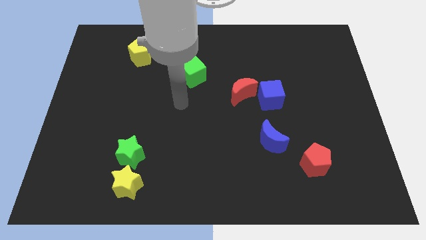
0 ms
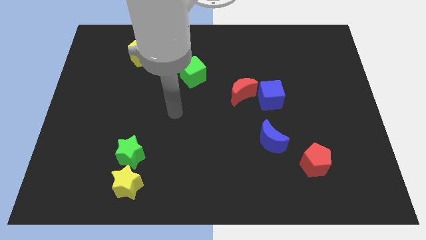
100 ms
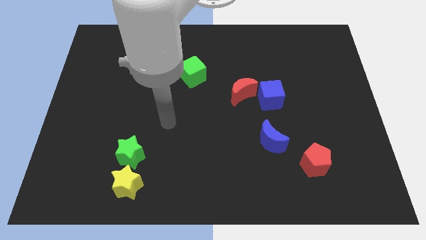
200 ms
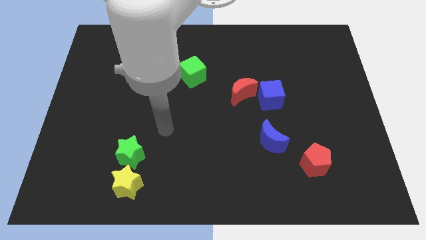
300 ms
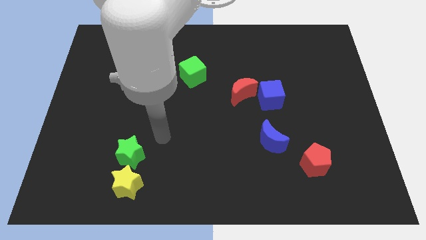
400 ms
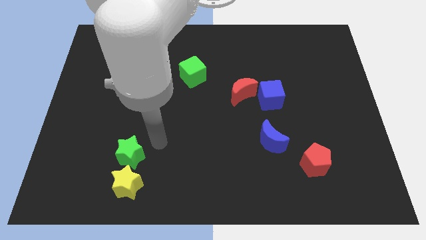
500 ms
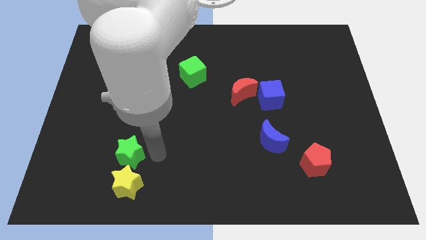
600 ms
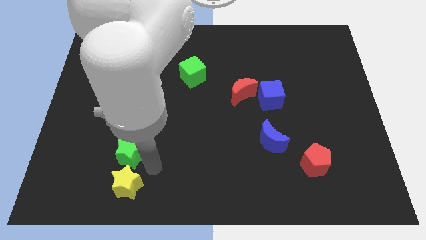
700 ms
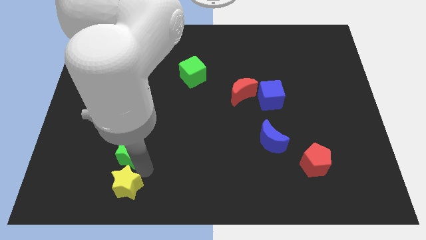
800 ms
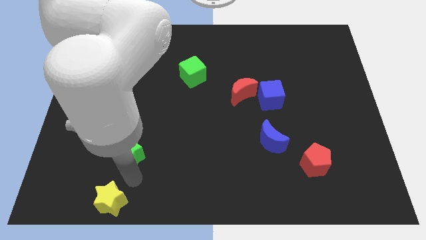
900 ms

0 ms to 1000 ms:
move the green star away from the yellow star

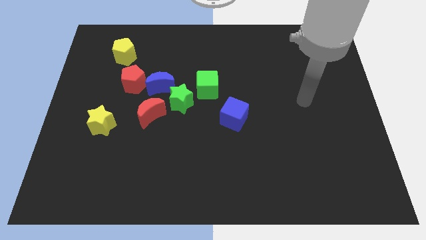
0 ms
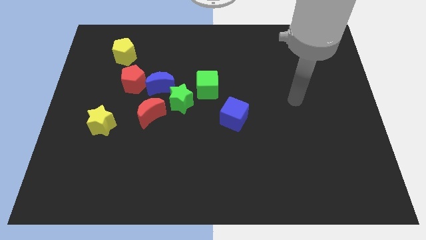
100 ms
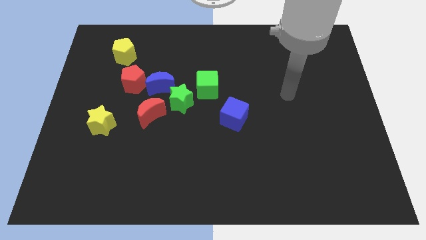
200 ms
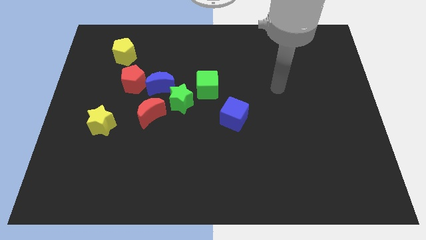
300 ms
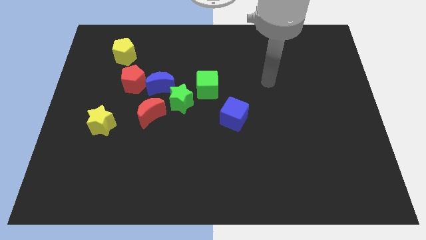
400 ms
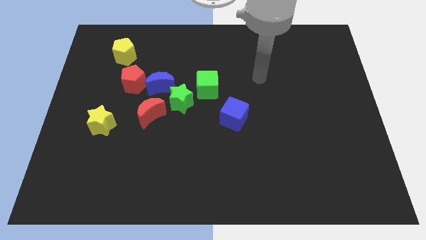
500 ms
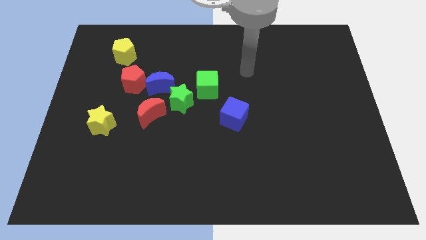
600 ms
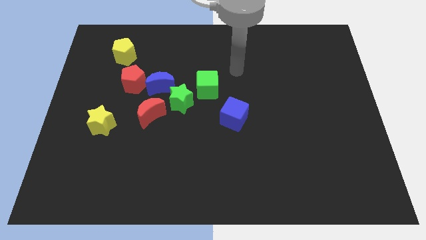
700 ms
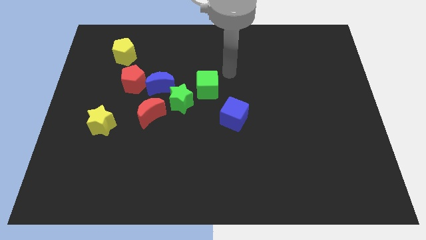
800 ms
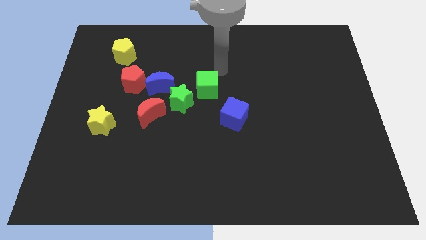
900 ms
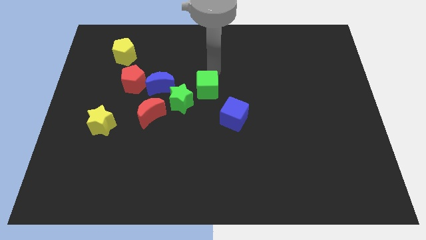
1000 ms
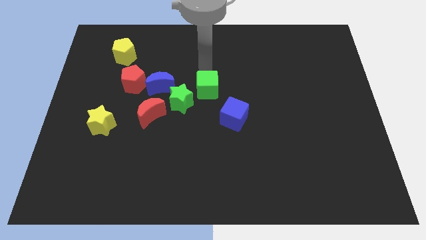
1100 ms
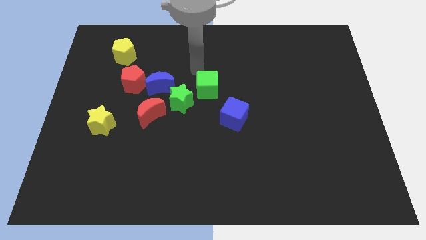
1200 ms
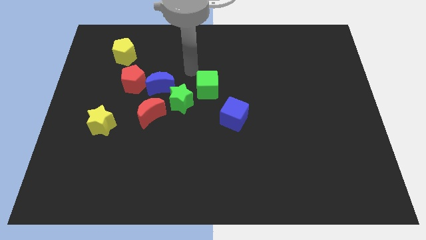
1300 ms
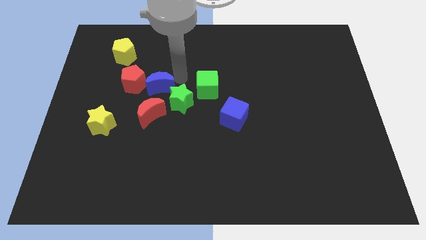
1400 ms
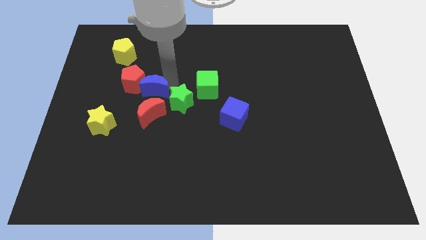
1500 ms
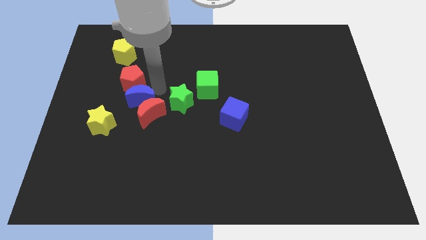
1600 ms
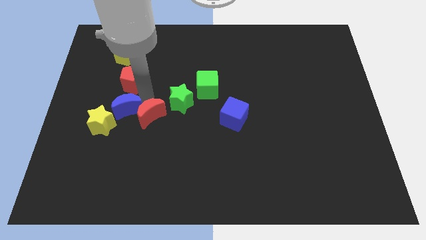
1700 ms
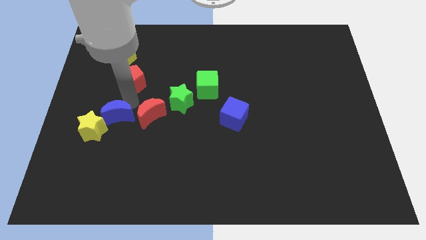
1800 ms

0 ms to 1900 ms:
pull the red pentagon apart from the blue moon

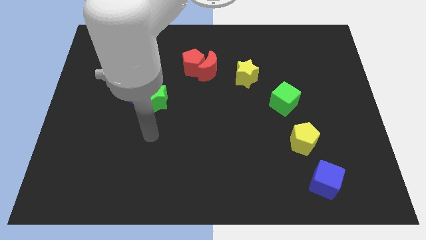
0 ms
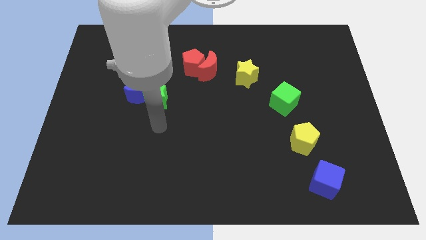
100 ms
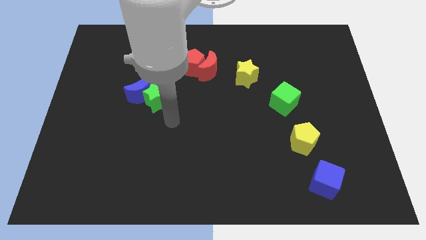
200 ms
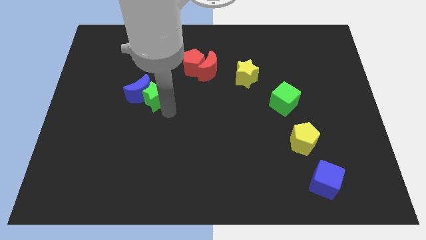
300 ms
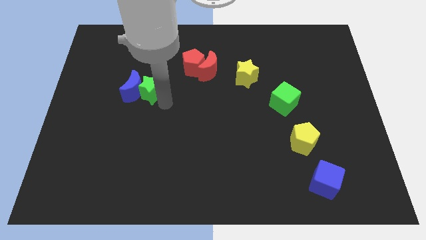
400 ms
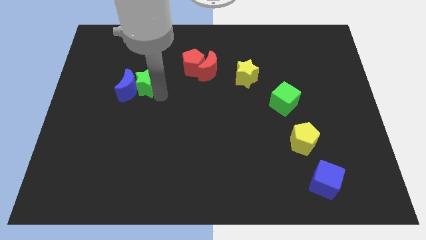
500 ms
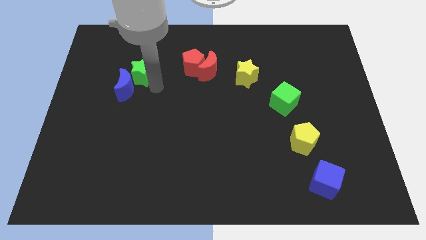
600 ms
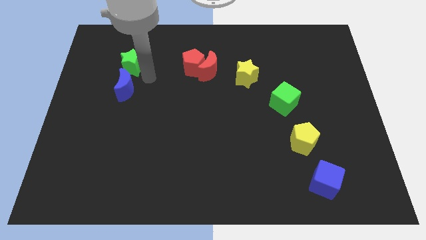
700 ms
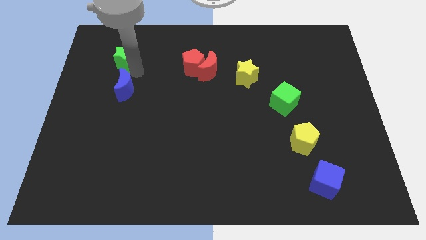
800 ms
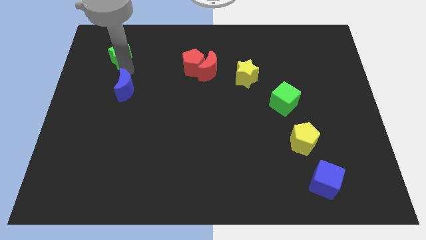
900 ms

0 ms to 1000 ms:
pull the blue moon apart from the green star

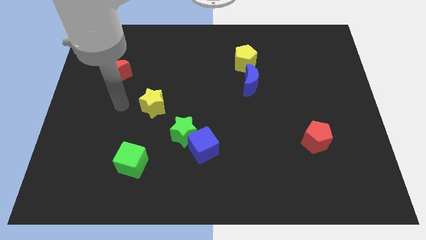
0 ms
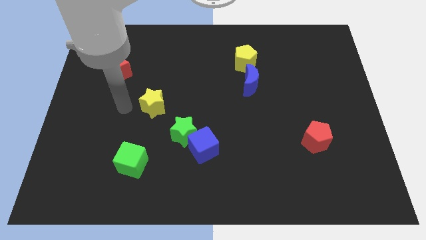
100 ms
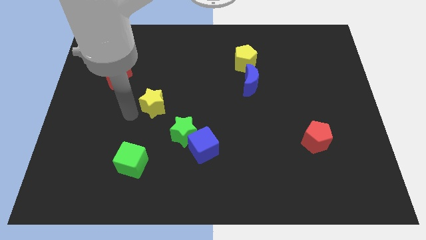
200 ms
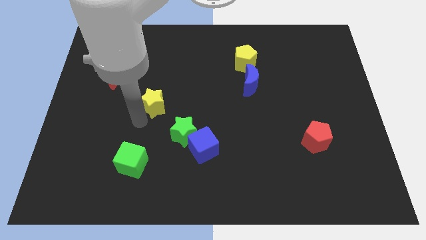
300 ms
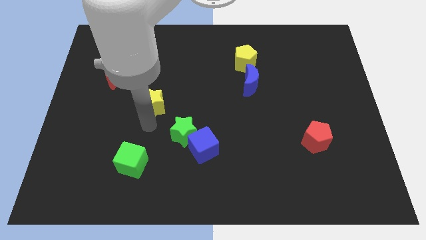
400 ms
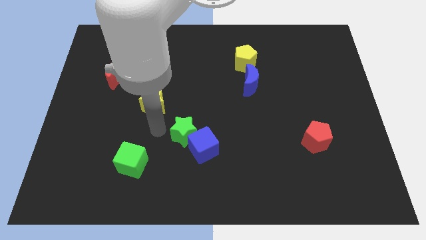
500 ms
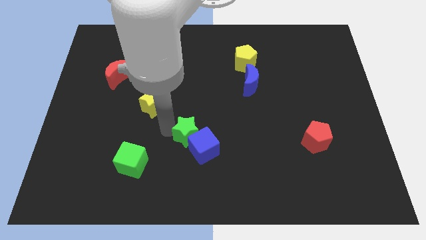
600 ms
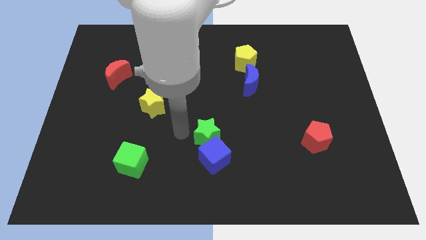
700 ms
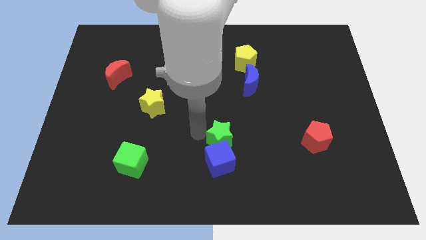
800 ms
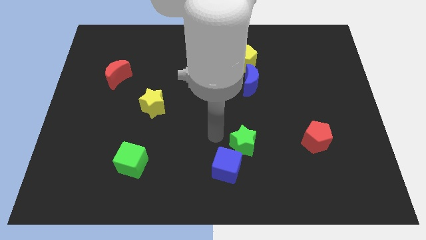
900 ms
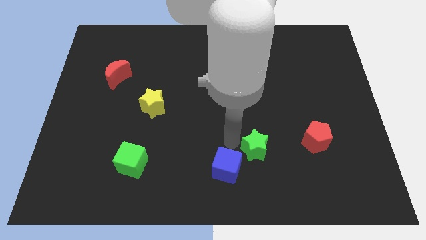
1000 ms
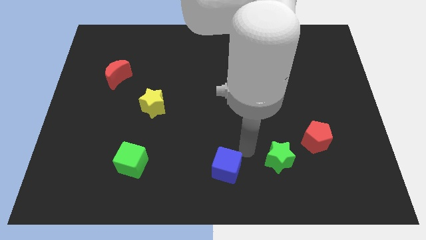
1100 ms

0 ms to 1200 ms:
separate the blue cube from the green star

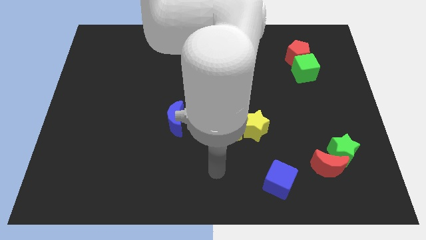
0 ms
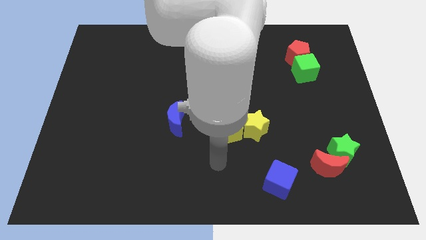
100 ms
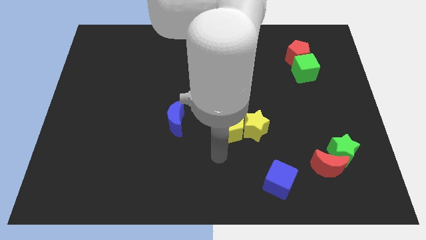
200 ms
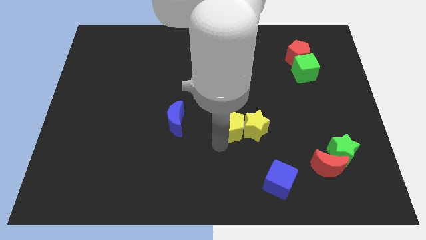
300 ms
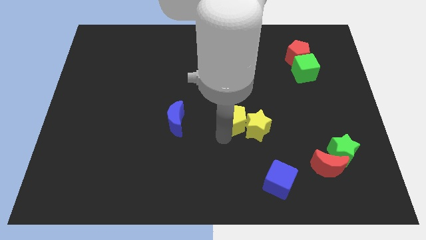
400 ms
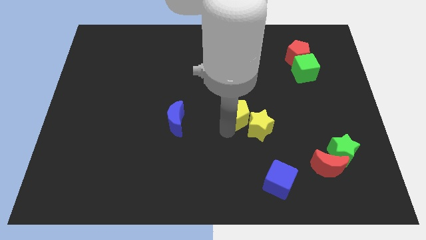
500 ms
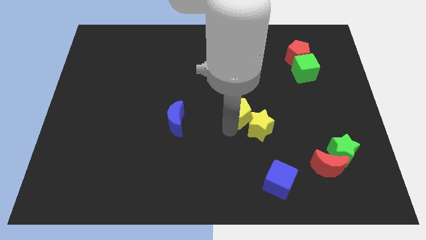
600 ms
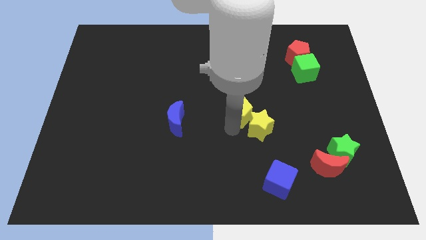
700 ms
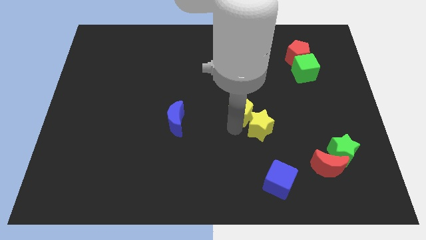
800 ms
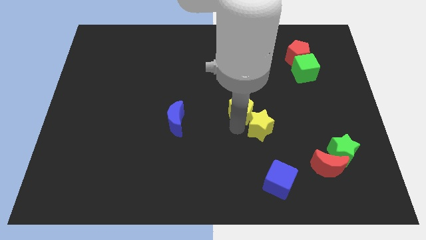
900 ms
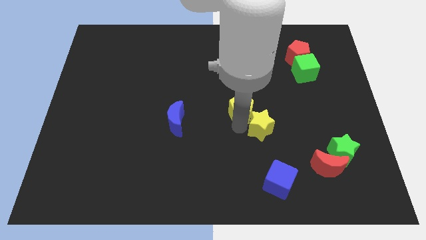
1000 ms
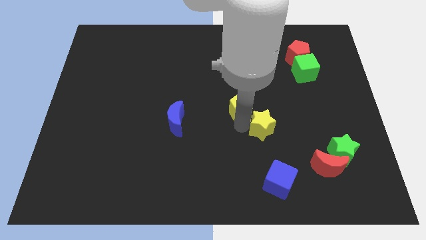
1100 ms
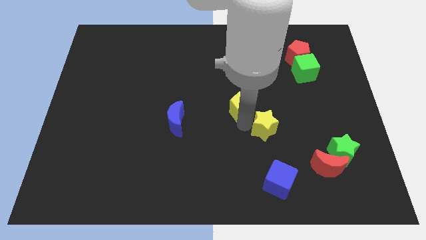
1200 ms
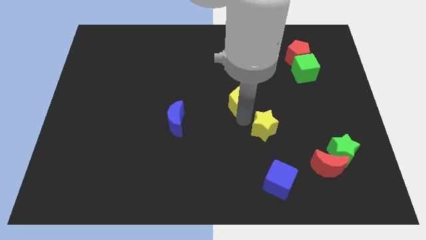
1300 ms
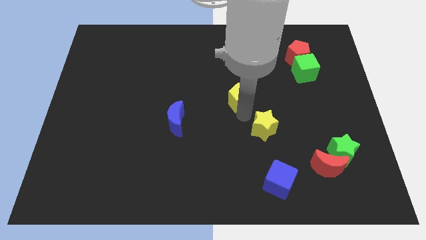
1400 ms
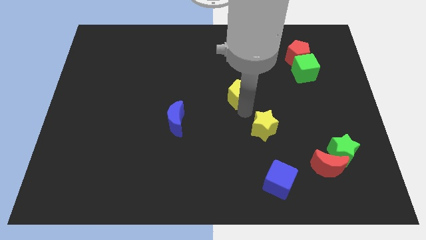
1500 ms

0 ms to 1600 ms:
move the yellow star away from the yellow pentagon

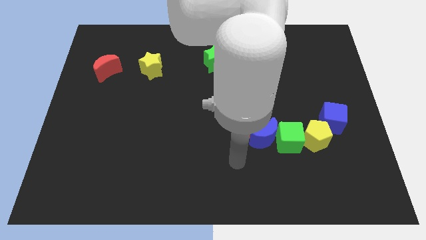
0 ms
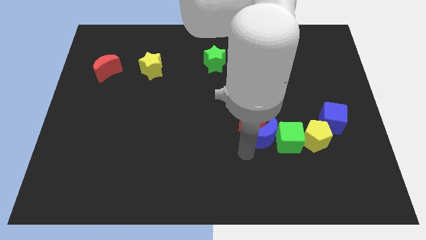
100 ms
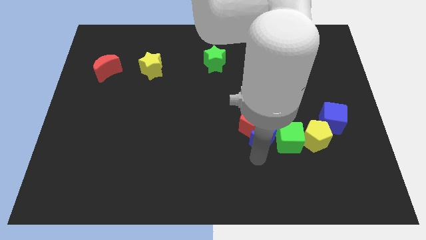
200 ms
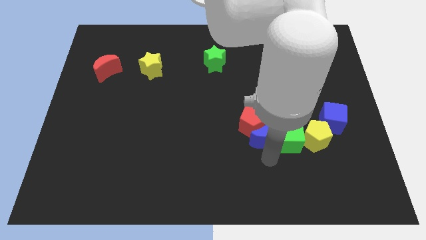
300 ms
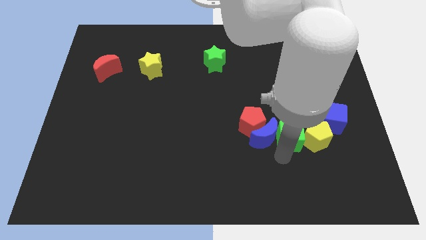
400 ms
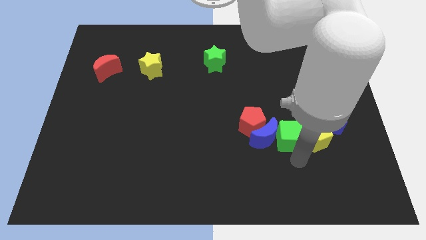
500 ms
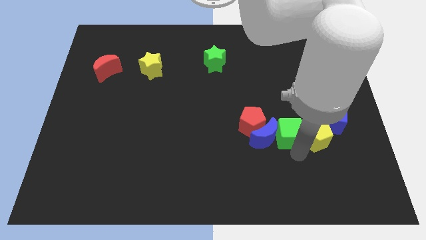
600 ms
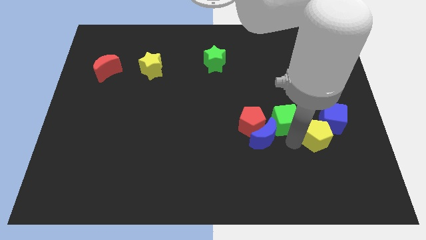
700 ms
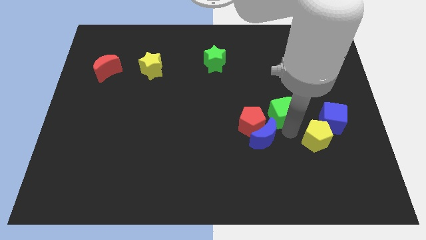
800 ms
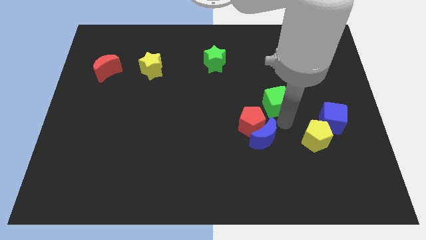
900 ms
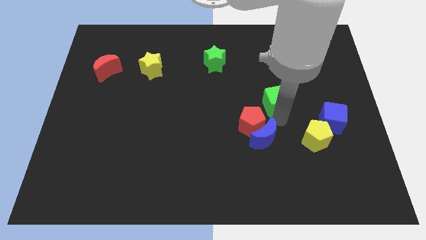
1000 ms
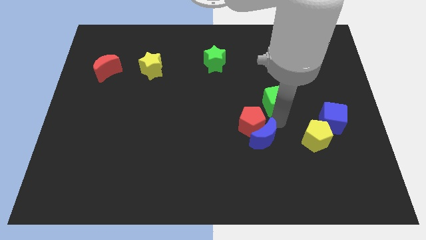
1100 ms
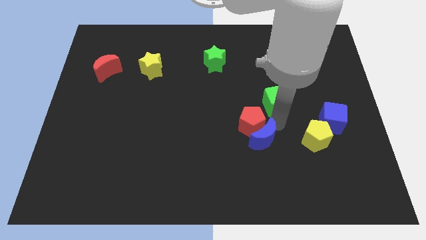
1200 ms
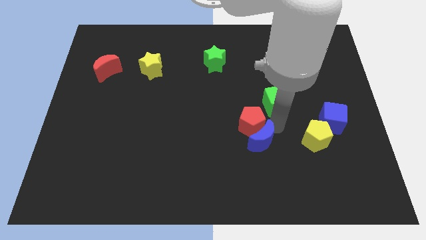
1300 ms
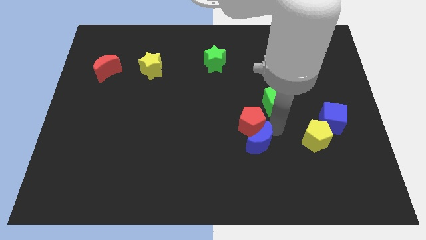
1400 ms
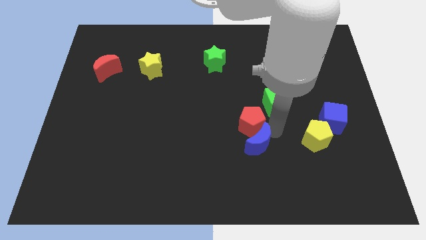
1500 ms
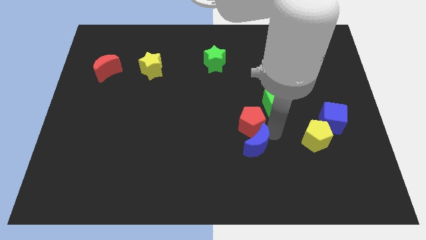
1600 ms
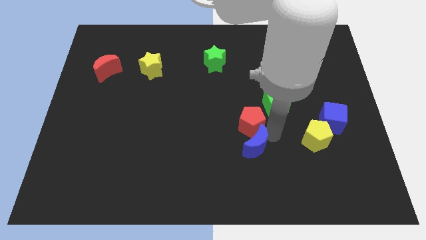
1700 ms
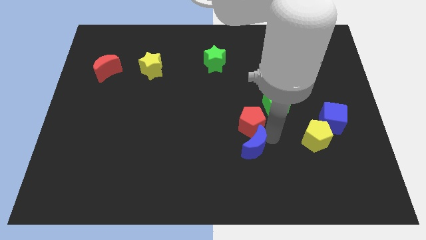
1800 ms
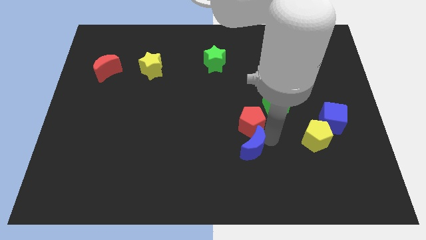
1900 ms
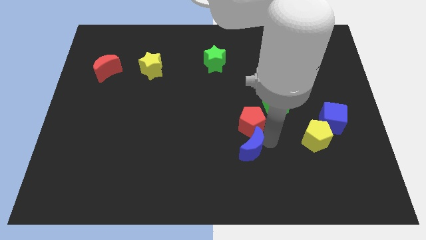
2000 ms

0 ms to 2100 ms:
pull the blue moon apart from the red pentagon and green cube

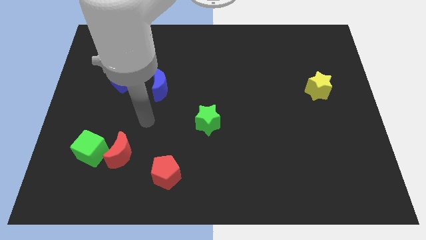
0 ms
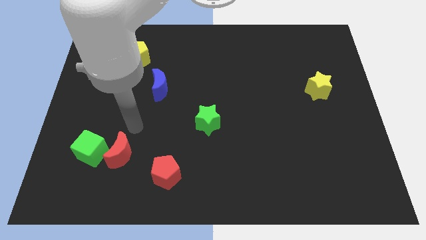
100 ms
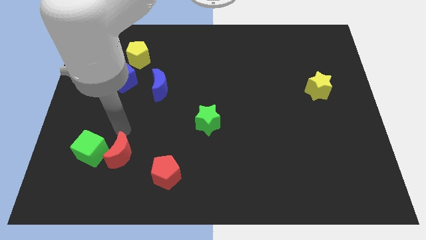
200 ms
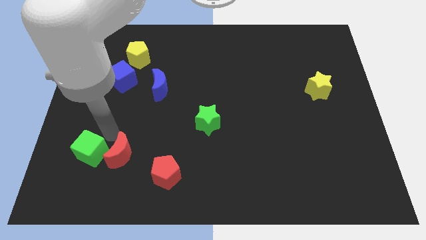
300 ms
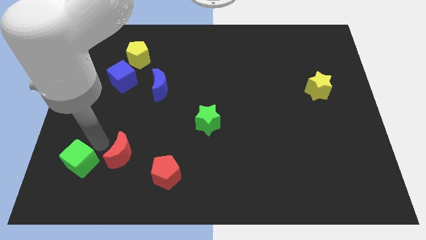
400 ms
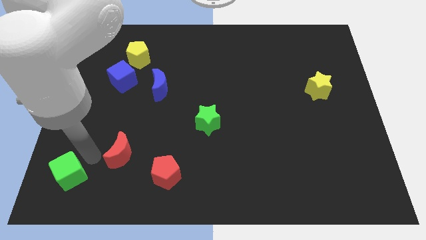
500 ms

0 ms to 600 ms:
move the red moon away from the green cube
